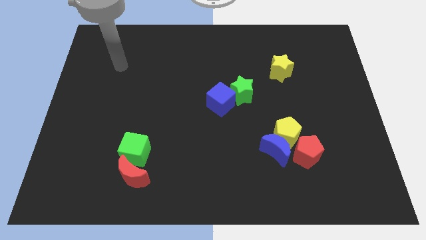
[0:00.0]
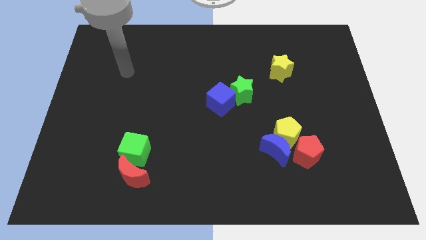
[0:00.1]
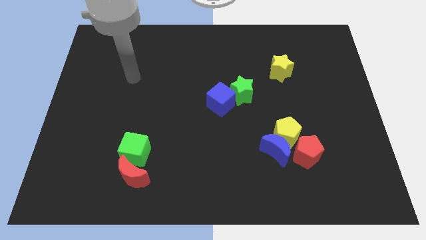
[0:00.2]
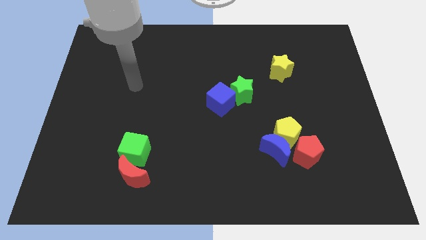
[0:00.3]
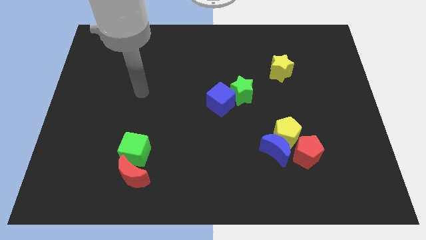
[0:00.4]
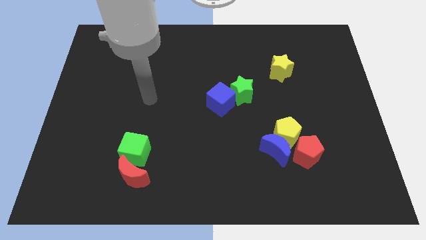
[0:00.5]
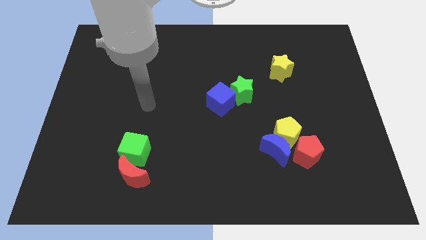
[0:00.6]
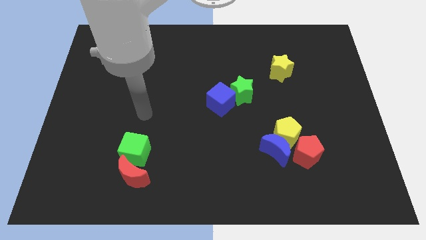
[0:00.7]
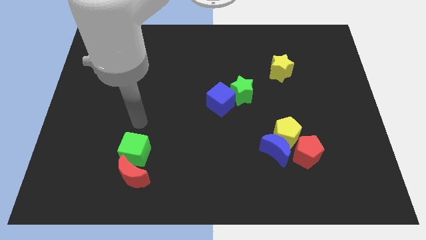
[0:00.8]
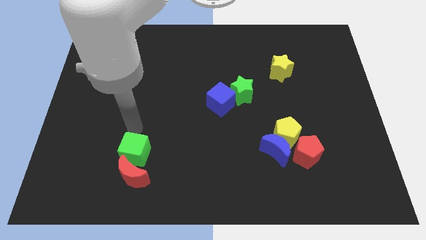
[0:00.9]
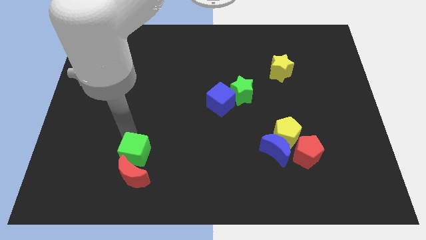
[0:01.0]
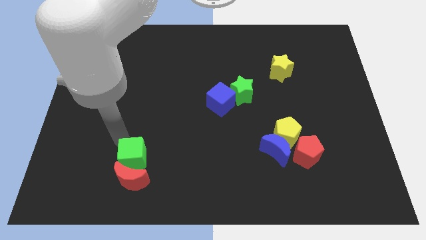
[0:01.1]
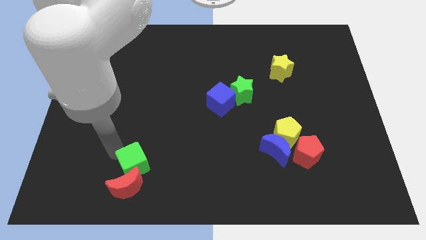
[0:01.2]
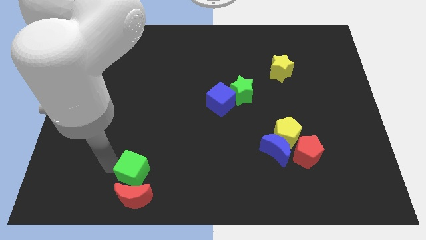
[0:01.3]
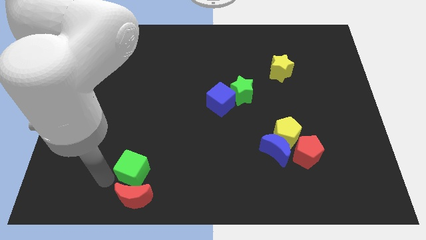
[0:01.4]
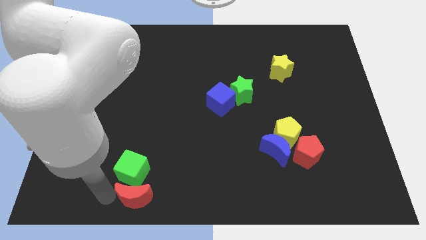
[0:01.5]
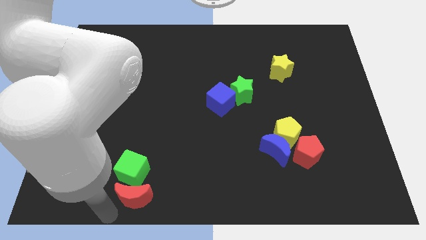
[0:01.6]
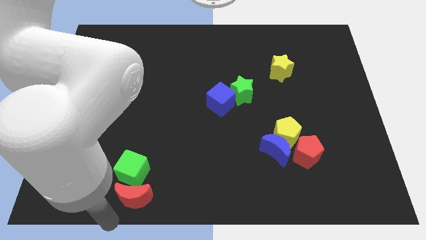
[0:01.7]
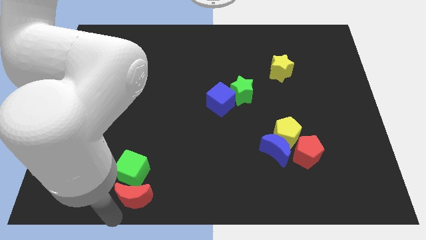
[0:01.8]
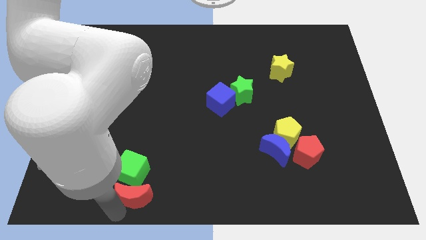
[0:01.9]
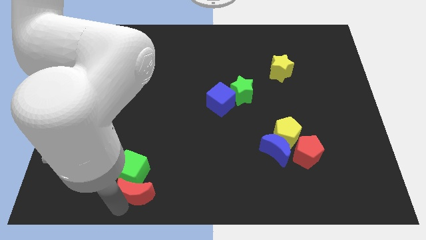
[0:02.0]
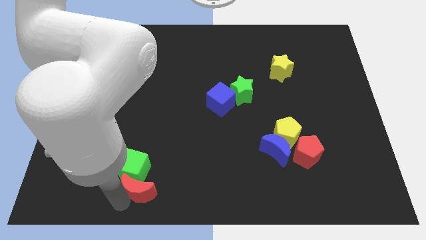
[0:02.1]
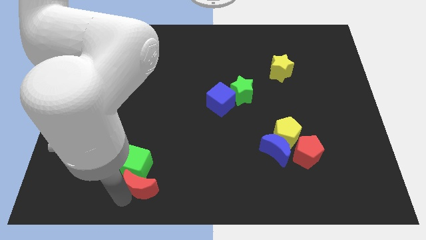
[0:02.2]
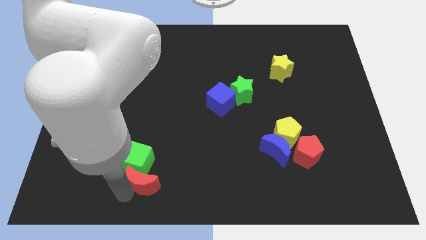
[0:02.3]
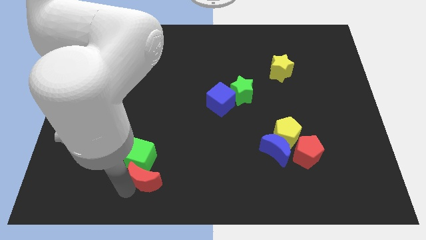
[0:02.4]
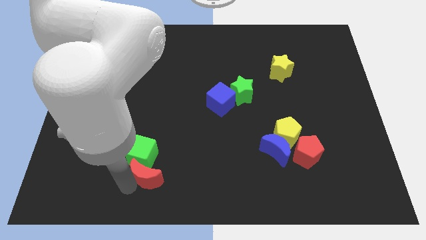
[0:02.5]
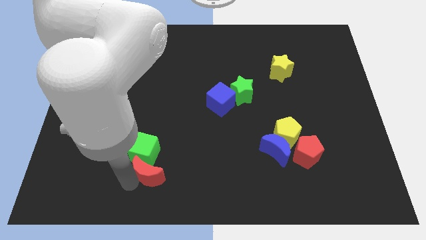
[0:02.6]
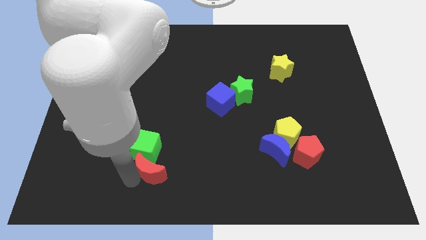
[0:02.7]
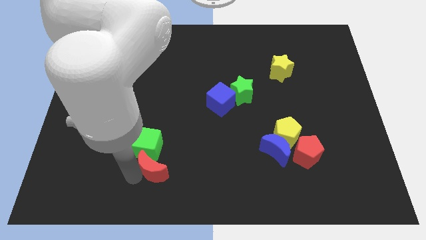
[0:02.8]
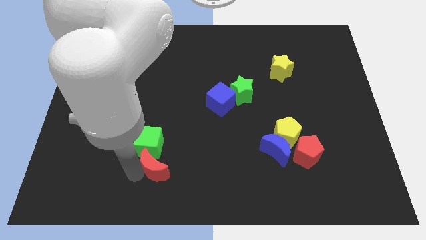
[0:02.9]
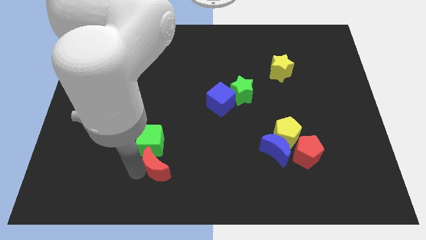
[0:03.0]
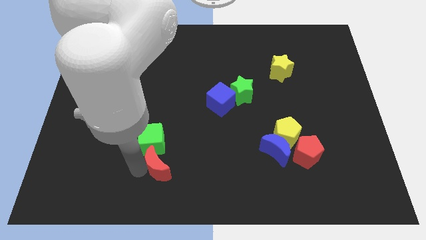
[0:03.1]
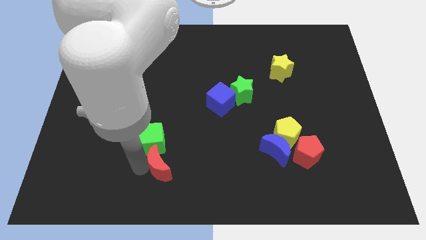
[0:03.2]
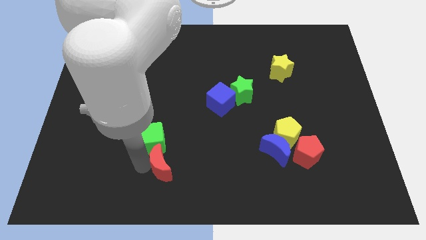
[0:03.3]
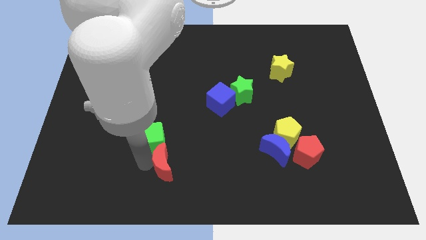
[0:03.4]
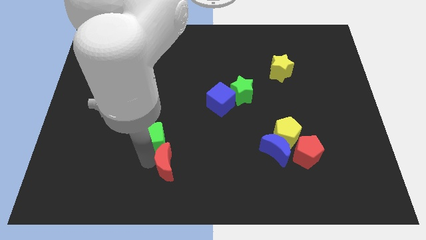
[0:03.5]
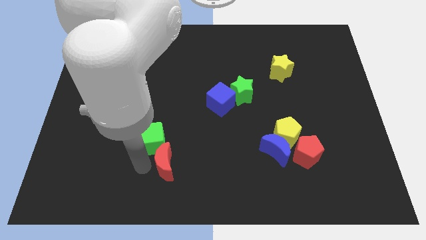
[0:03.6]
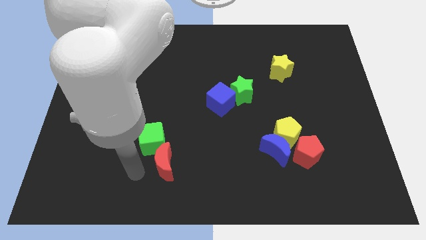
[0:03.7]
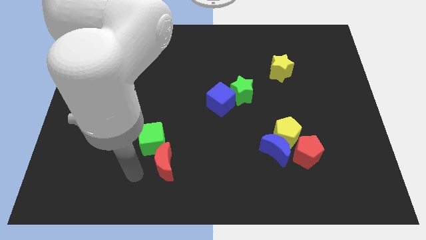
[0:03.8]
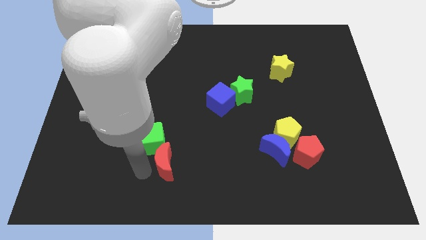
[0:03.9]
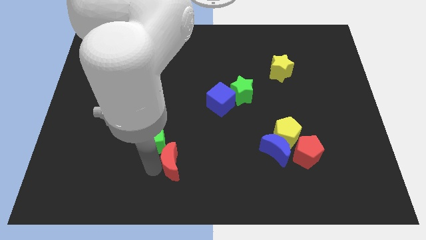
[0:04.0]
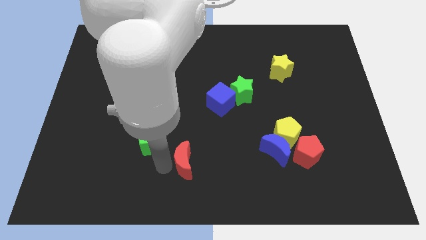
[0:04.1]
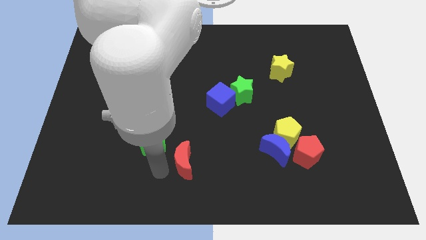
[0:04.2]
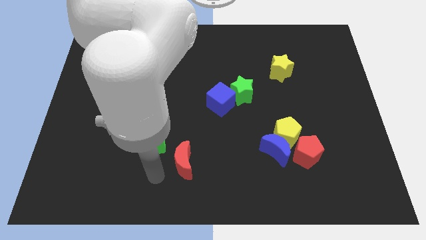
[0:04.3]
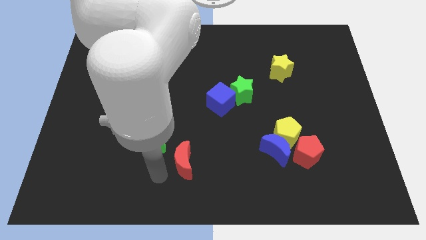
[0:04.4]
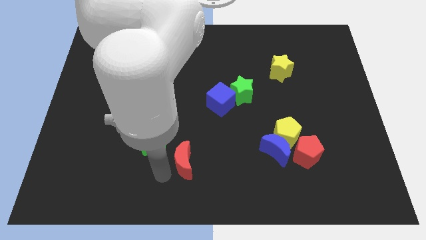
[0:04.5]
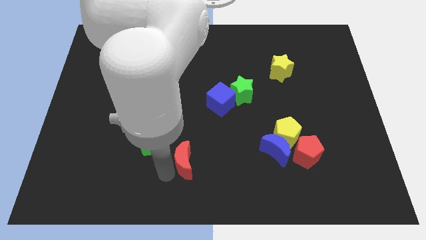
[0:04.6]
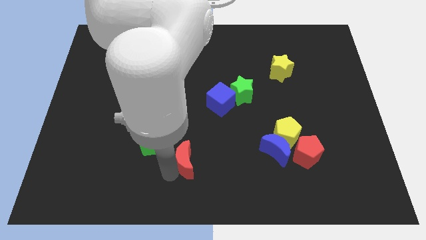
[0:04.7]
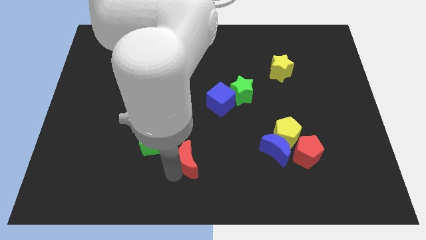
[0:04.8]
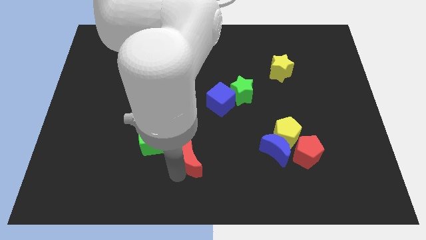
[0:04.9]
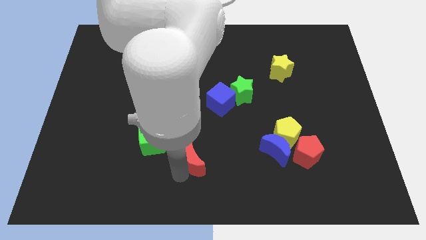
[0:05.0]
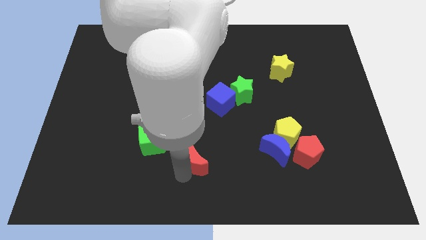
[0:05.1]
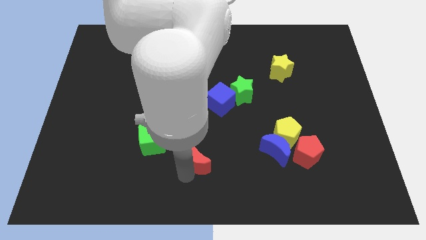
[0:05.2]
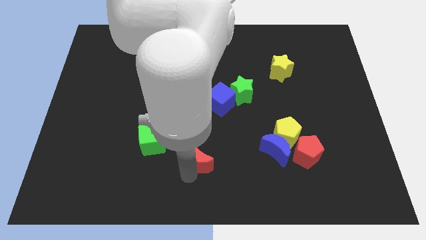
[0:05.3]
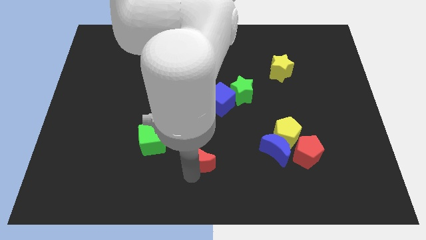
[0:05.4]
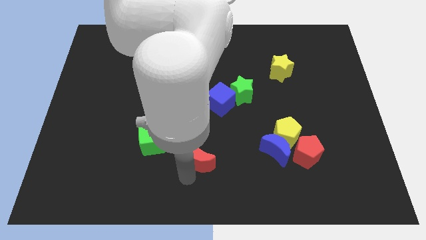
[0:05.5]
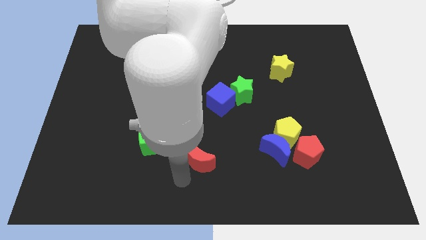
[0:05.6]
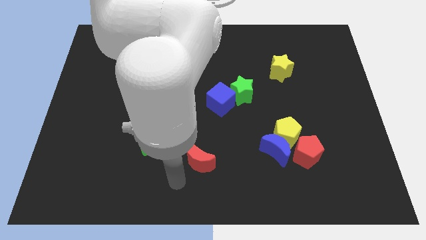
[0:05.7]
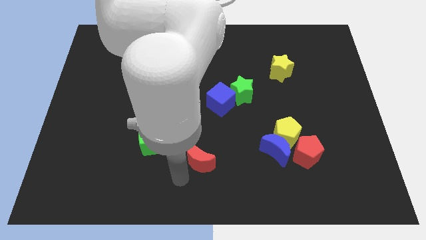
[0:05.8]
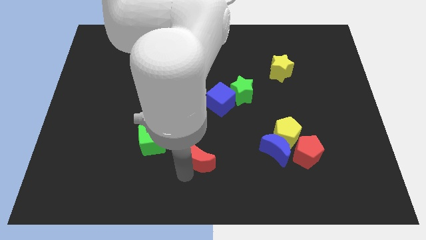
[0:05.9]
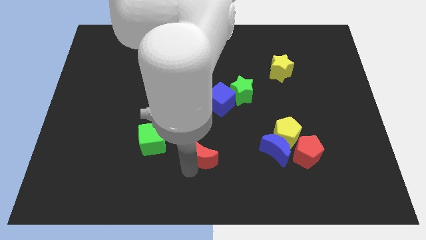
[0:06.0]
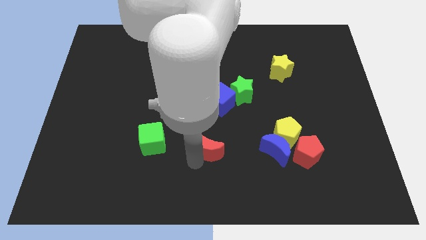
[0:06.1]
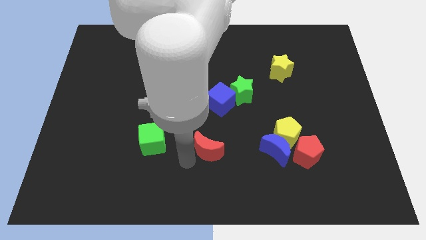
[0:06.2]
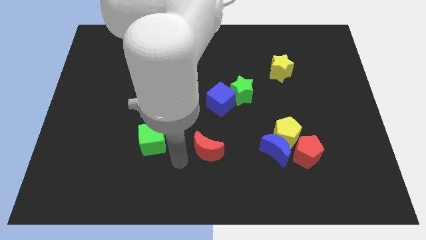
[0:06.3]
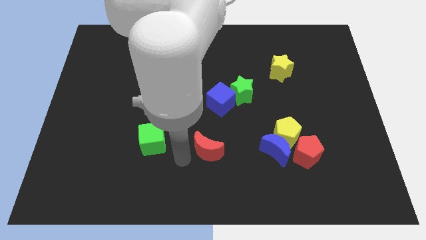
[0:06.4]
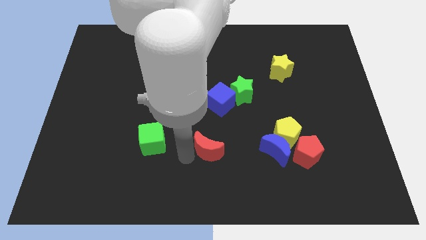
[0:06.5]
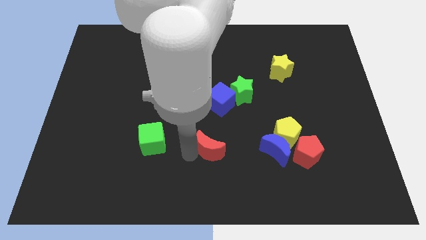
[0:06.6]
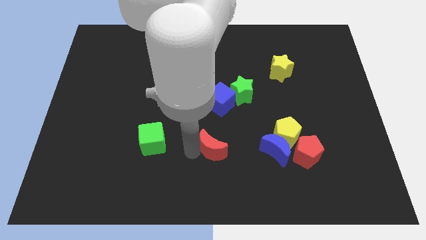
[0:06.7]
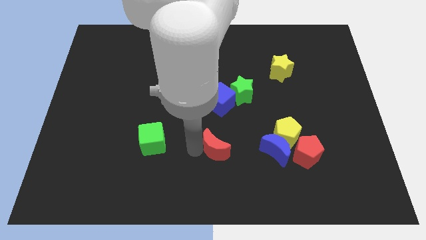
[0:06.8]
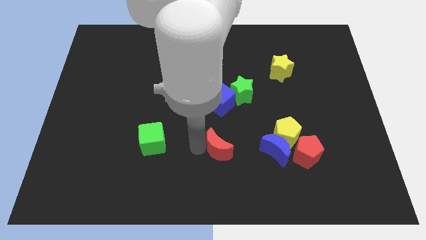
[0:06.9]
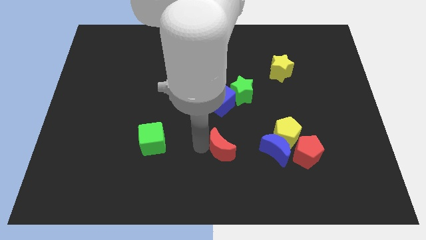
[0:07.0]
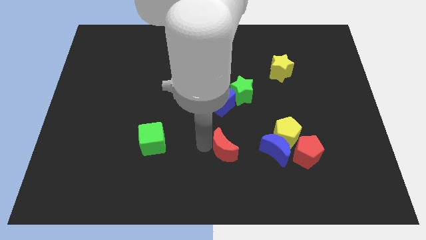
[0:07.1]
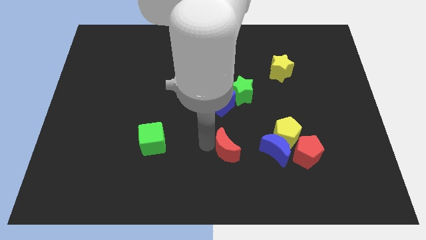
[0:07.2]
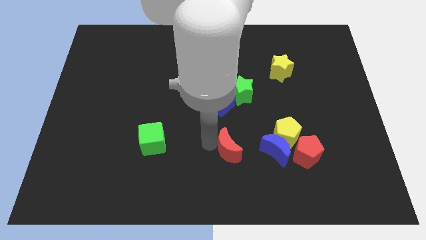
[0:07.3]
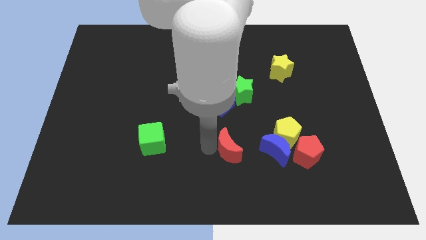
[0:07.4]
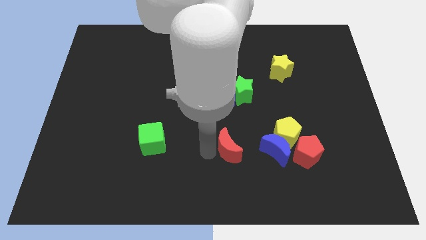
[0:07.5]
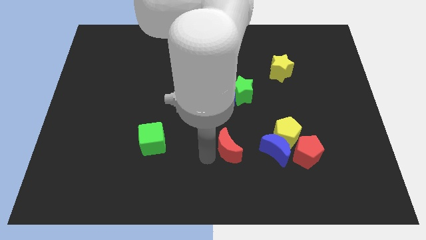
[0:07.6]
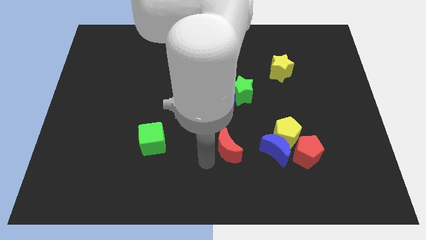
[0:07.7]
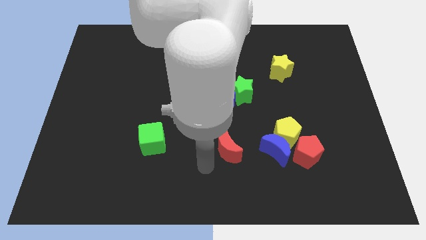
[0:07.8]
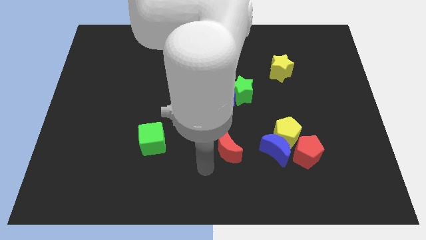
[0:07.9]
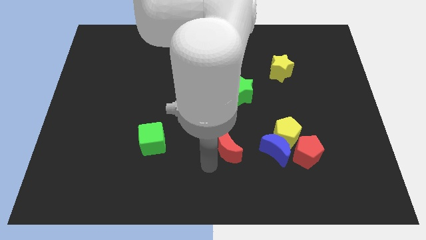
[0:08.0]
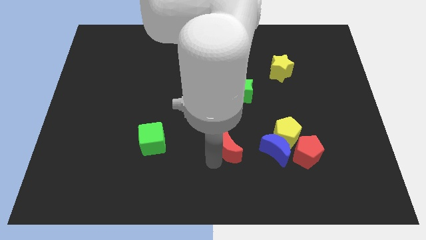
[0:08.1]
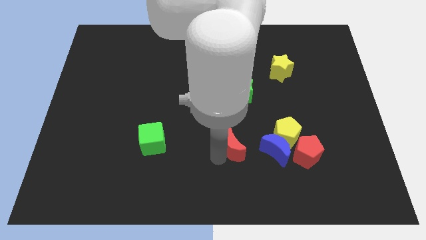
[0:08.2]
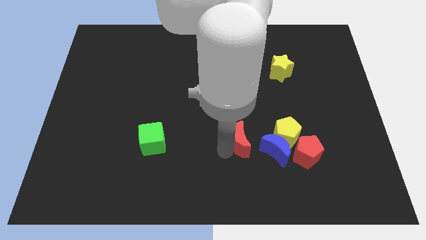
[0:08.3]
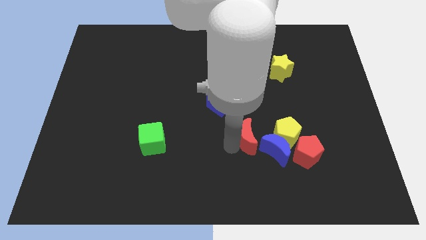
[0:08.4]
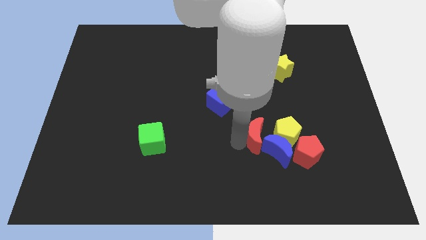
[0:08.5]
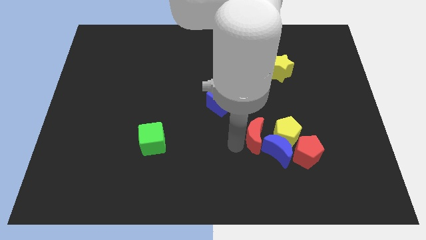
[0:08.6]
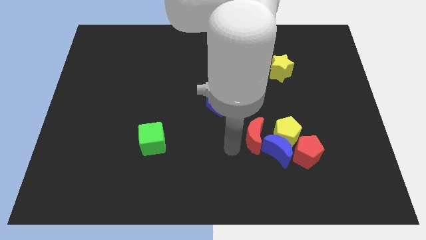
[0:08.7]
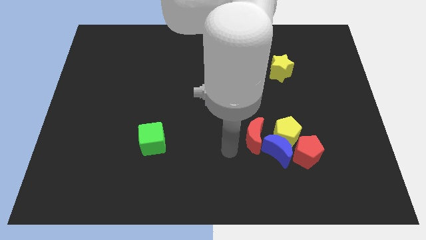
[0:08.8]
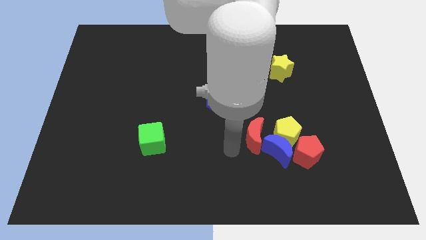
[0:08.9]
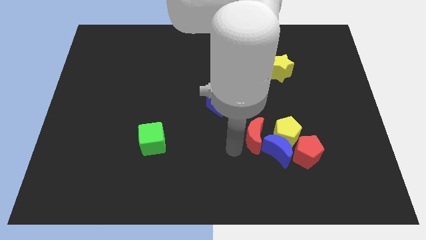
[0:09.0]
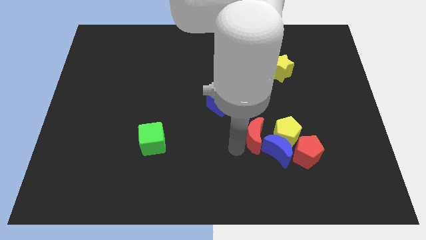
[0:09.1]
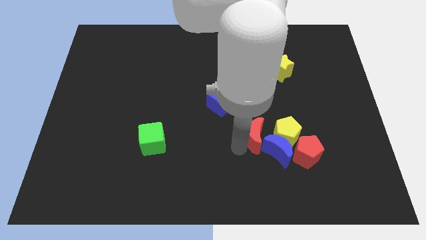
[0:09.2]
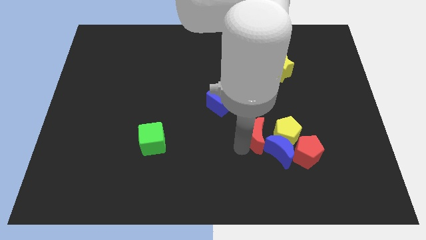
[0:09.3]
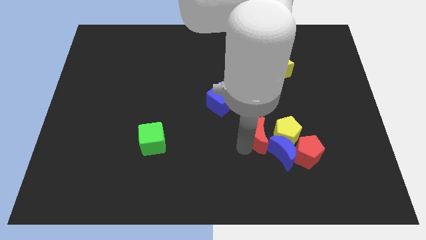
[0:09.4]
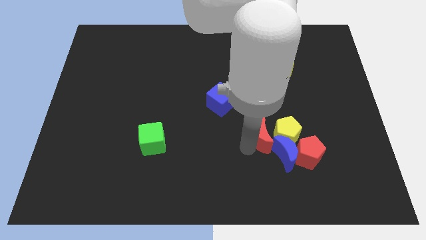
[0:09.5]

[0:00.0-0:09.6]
move the red moon close to the yellow pentagon
